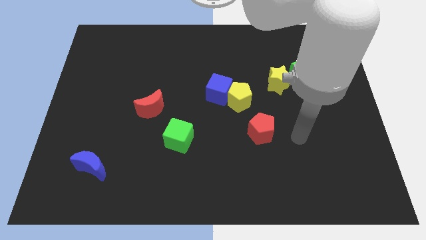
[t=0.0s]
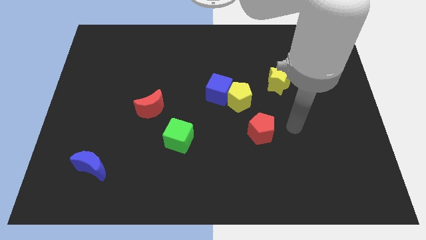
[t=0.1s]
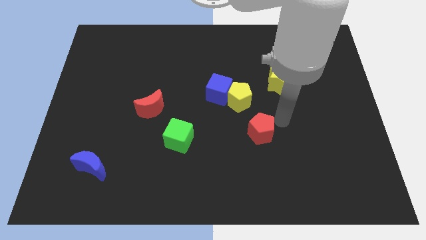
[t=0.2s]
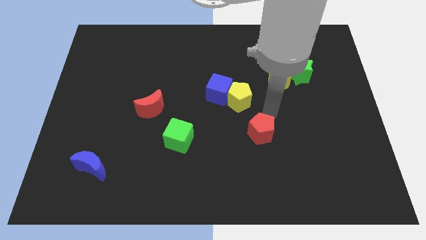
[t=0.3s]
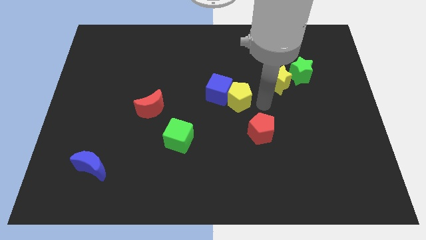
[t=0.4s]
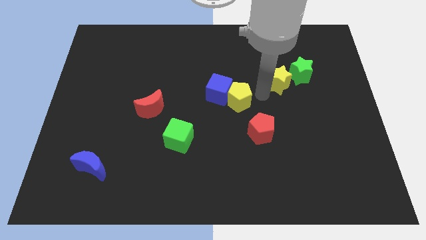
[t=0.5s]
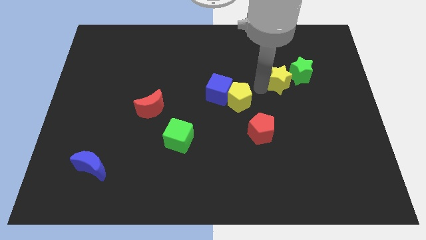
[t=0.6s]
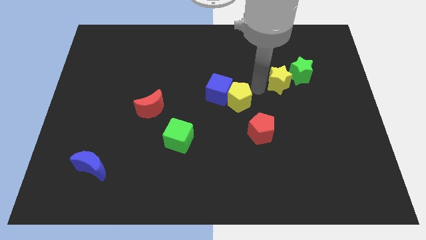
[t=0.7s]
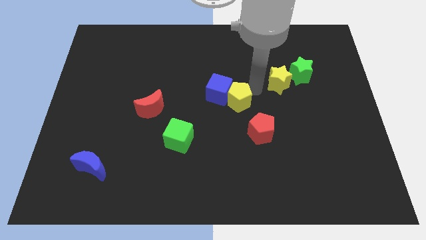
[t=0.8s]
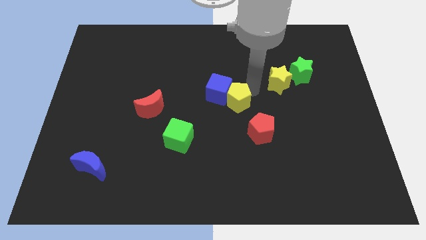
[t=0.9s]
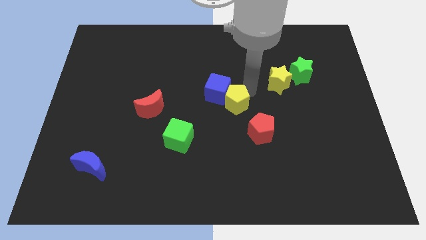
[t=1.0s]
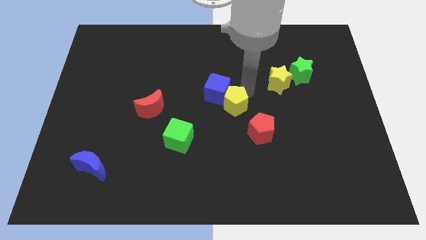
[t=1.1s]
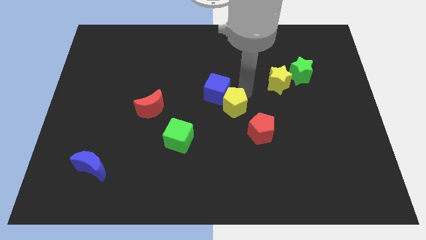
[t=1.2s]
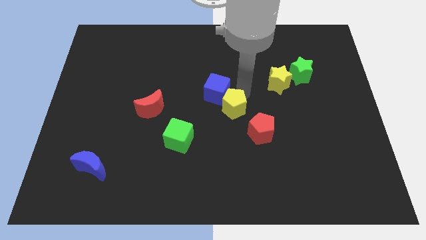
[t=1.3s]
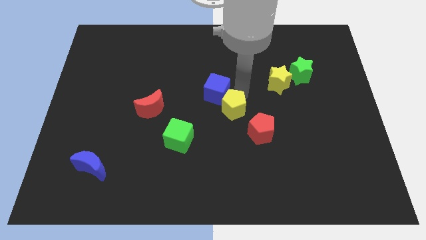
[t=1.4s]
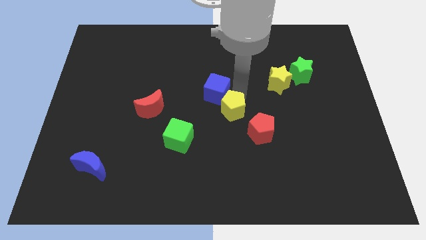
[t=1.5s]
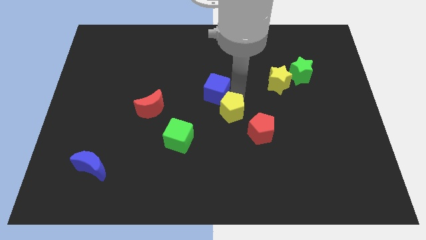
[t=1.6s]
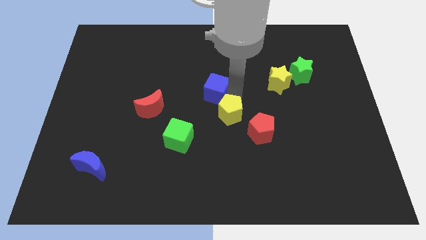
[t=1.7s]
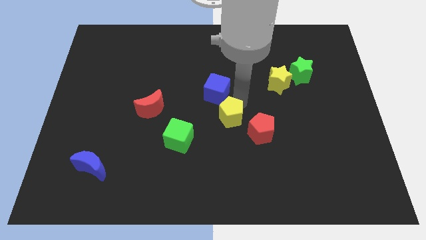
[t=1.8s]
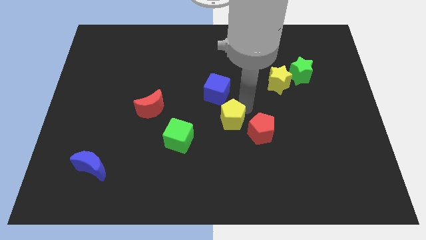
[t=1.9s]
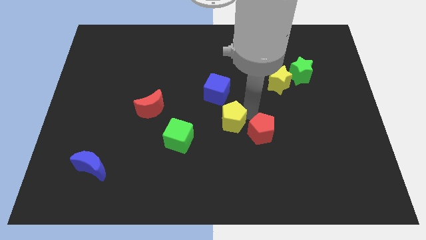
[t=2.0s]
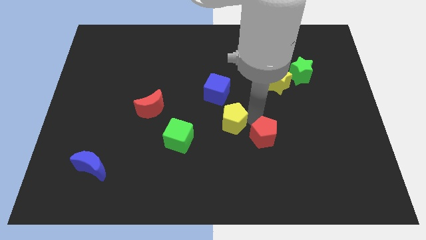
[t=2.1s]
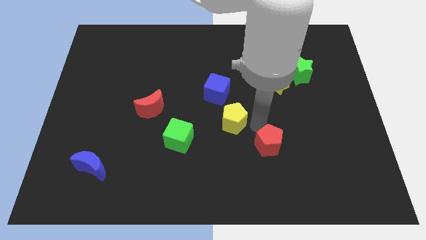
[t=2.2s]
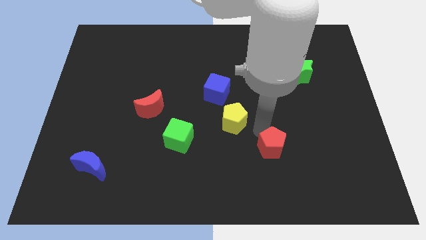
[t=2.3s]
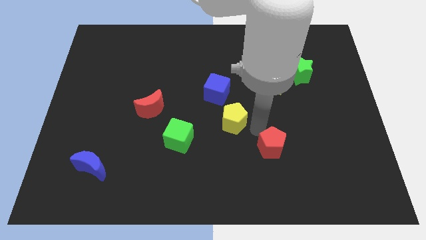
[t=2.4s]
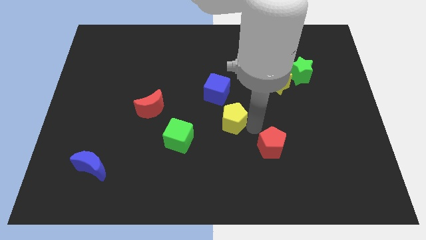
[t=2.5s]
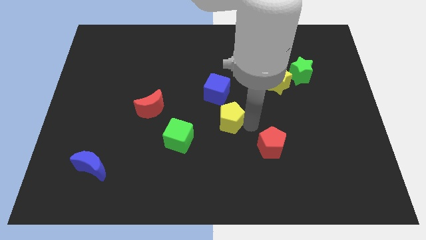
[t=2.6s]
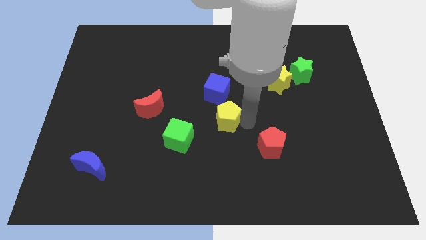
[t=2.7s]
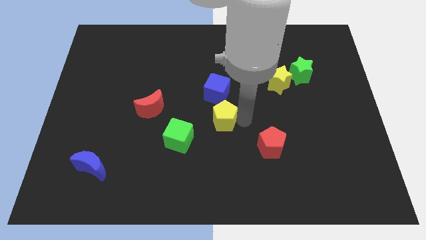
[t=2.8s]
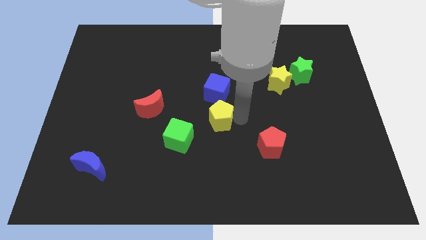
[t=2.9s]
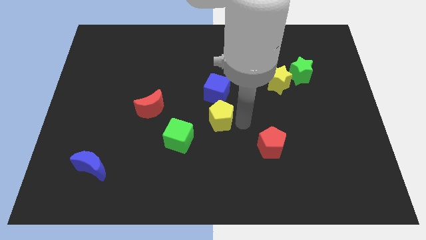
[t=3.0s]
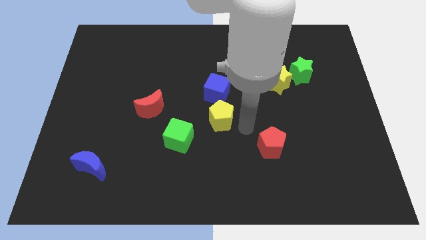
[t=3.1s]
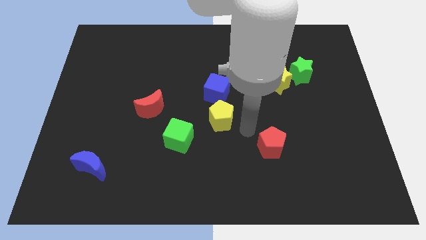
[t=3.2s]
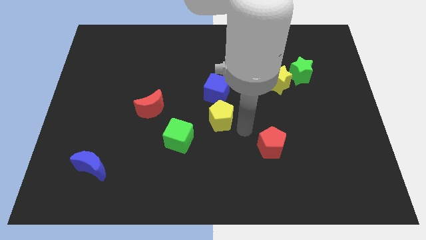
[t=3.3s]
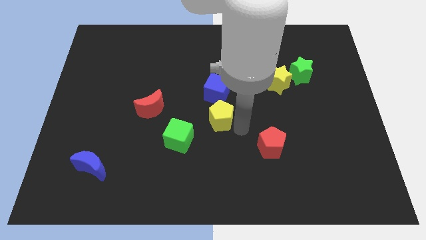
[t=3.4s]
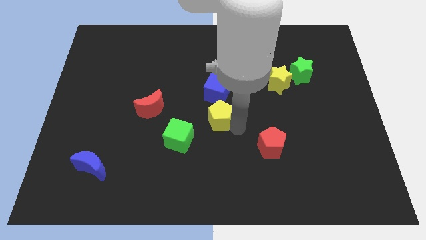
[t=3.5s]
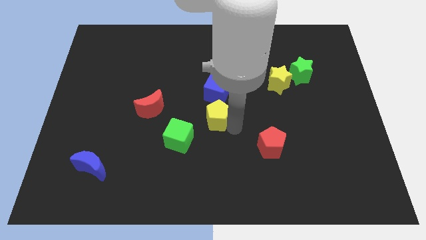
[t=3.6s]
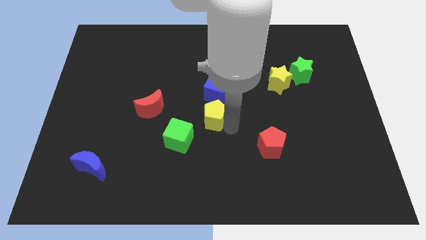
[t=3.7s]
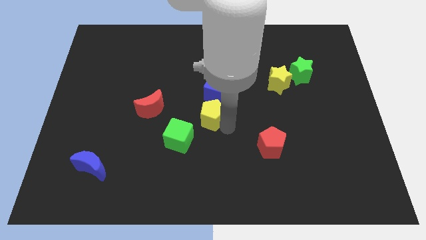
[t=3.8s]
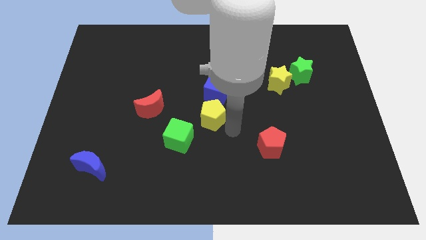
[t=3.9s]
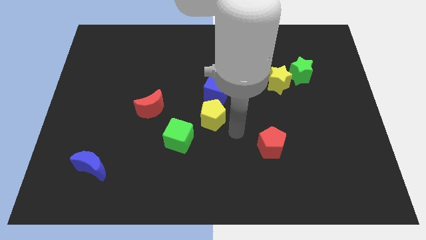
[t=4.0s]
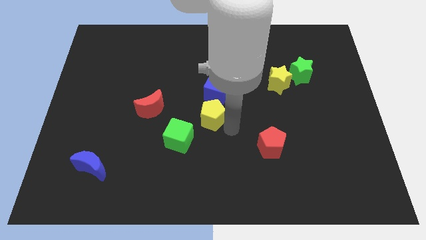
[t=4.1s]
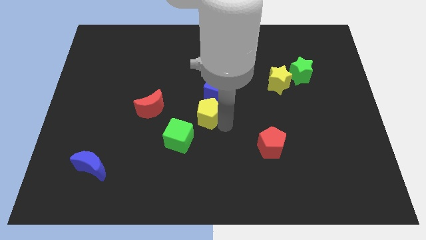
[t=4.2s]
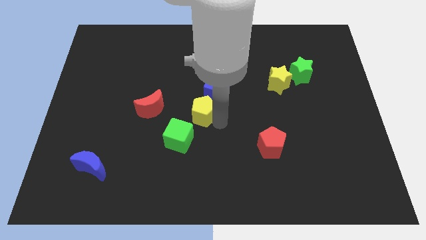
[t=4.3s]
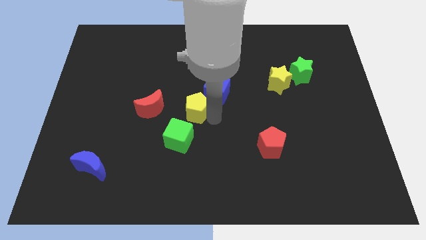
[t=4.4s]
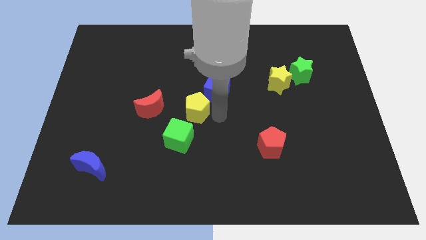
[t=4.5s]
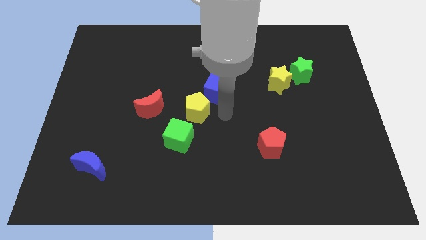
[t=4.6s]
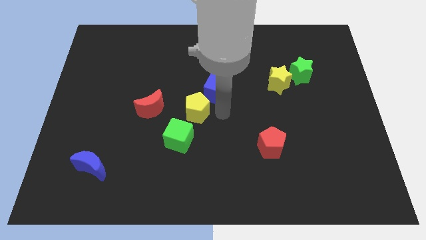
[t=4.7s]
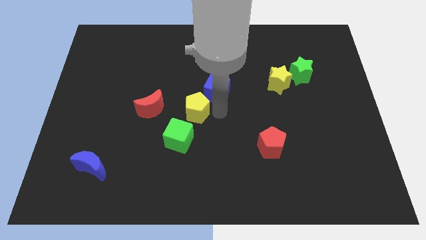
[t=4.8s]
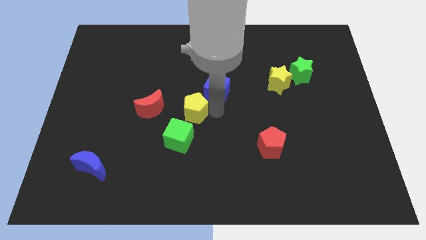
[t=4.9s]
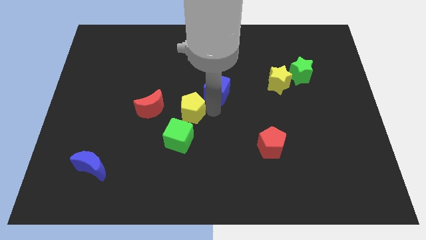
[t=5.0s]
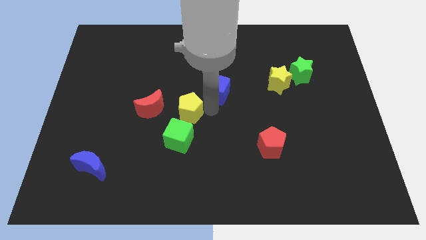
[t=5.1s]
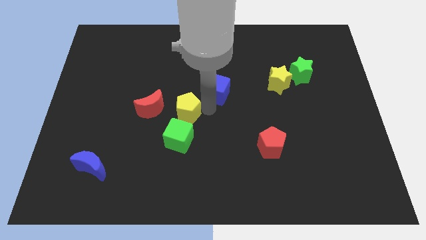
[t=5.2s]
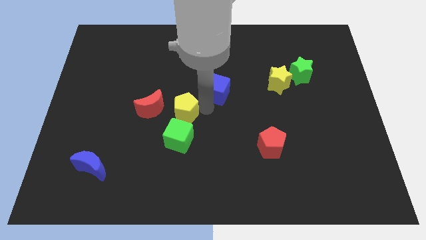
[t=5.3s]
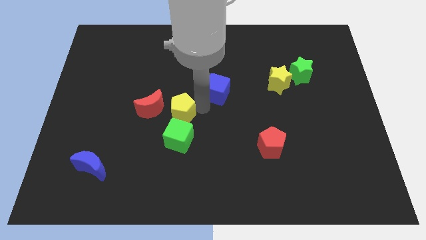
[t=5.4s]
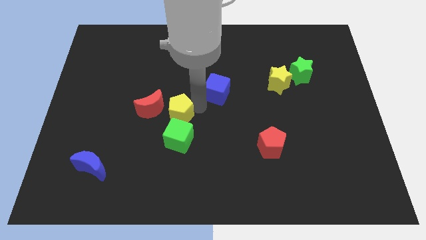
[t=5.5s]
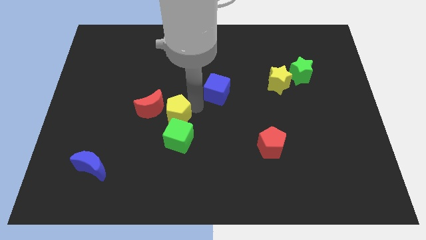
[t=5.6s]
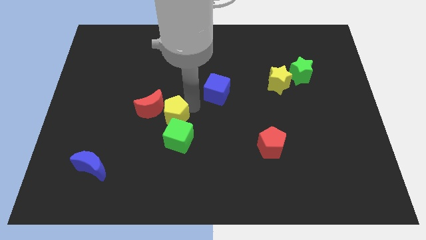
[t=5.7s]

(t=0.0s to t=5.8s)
push the yellow pentagon towards the red moon

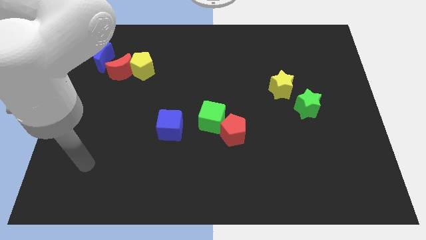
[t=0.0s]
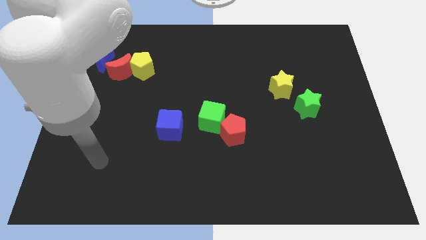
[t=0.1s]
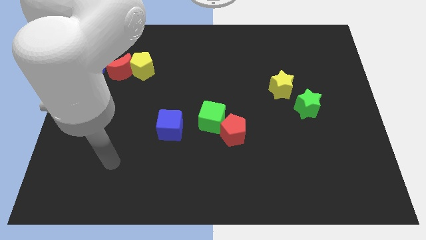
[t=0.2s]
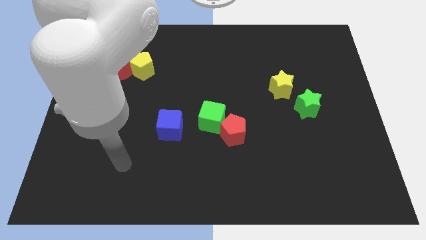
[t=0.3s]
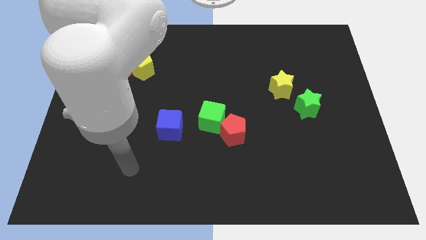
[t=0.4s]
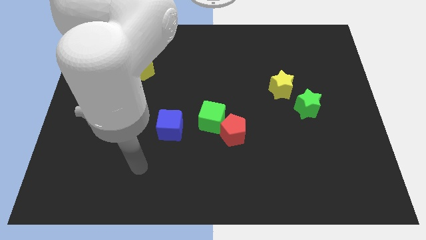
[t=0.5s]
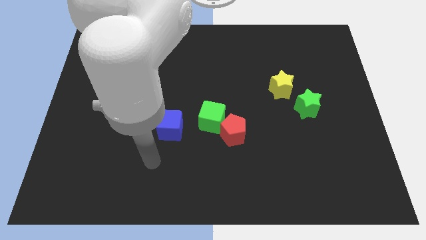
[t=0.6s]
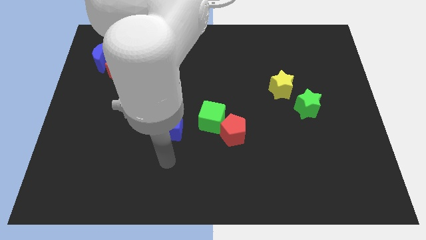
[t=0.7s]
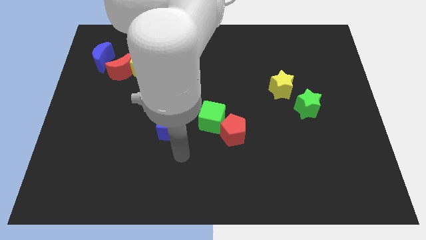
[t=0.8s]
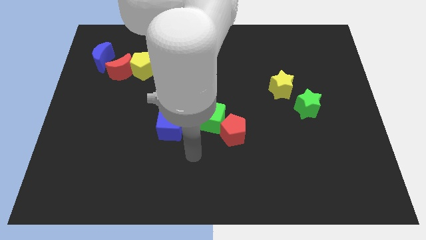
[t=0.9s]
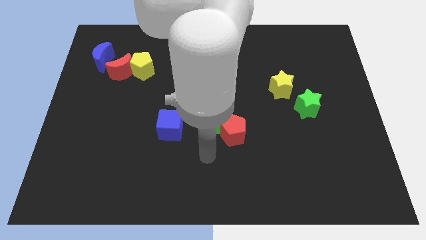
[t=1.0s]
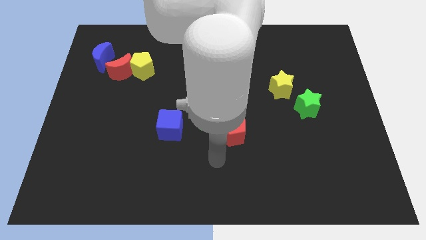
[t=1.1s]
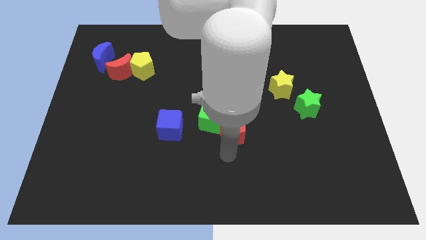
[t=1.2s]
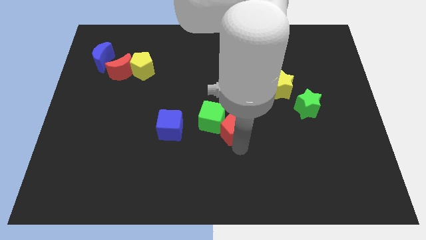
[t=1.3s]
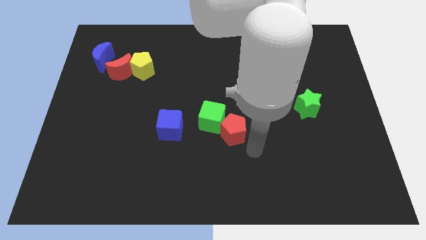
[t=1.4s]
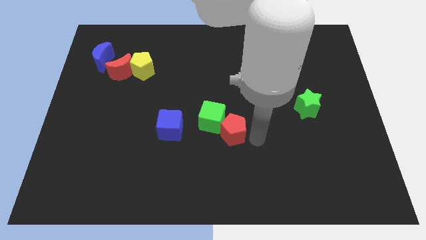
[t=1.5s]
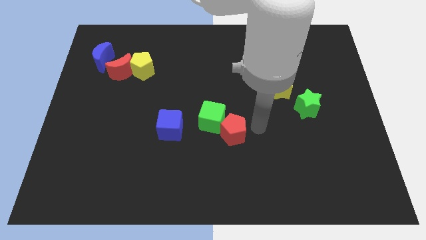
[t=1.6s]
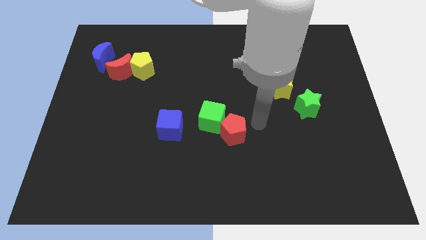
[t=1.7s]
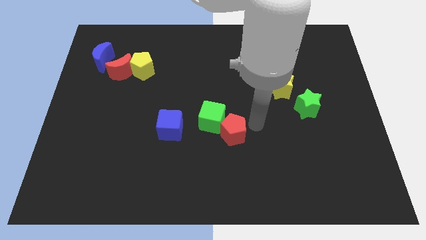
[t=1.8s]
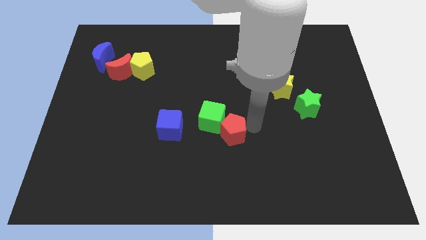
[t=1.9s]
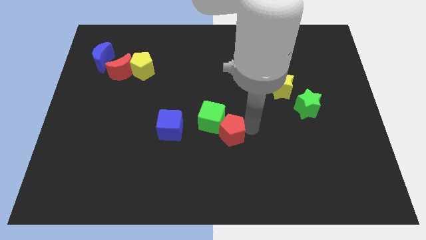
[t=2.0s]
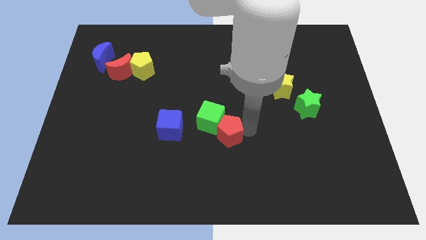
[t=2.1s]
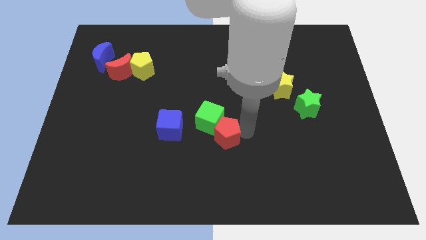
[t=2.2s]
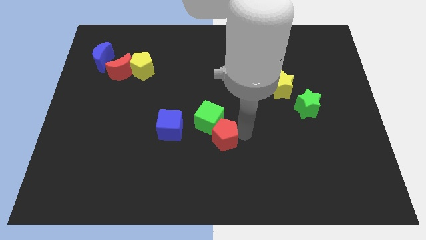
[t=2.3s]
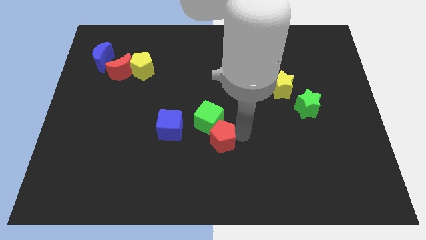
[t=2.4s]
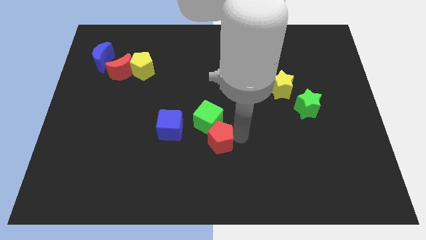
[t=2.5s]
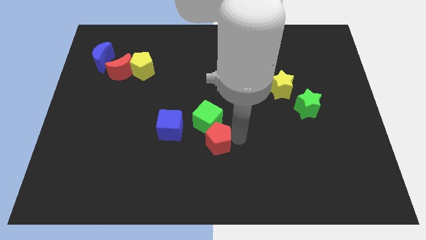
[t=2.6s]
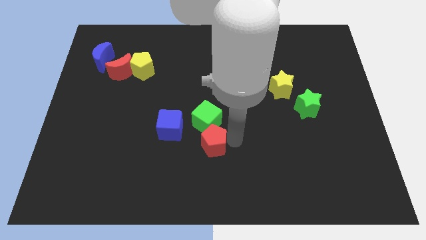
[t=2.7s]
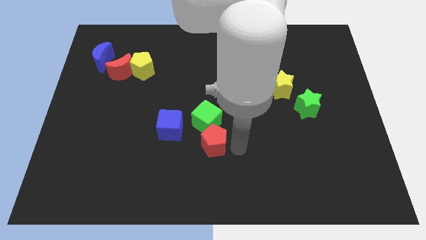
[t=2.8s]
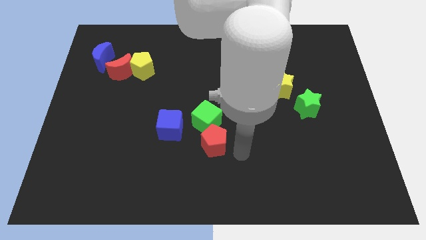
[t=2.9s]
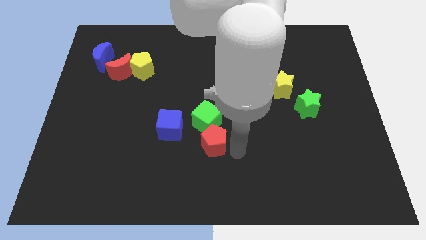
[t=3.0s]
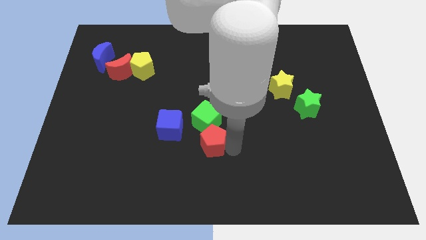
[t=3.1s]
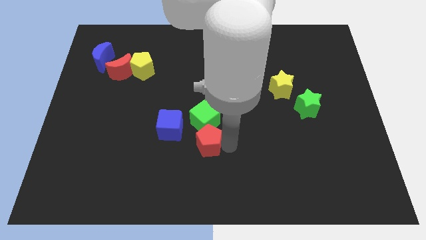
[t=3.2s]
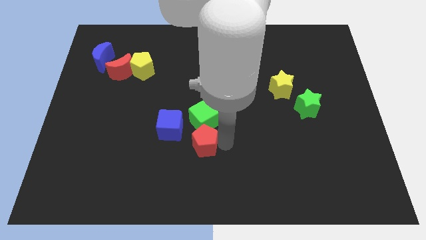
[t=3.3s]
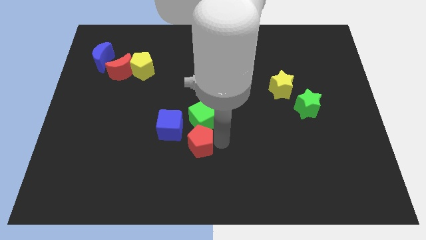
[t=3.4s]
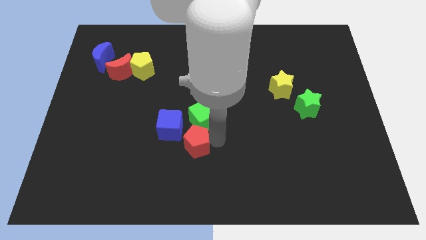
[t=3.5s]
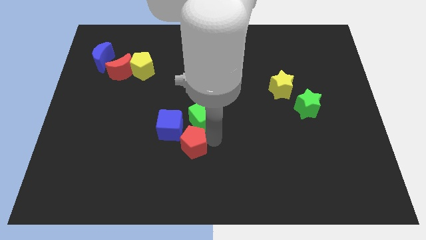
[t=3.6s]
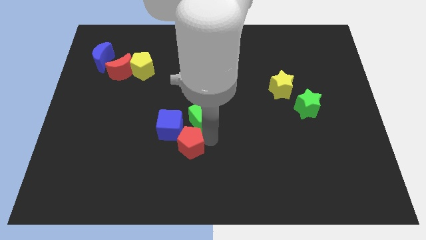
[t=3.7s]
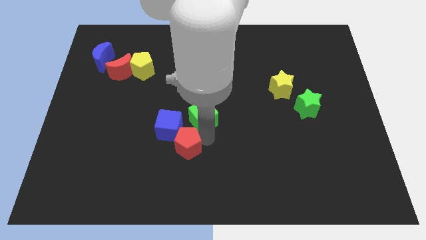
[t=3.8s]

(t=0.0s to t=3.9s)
push the red pentagon next to the blue cube
